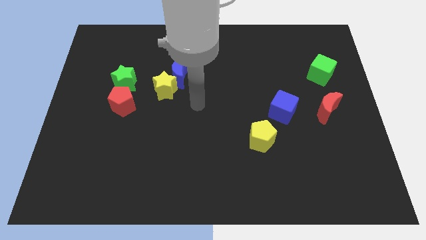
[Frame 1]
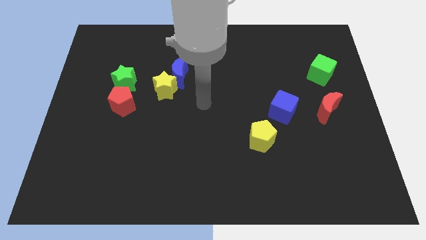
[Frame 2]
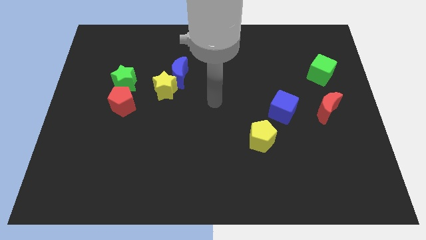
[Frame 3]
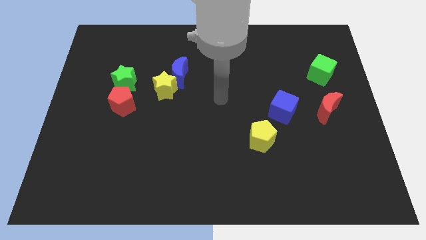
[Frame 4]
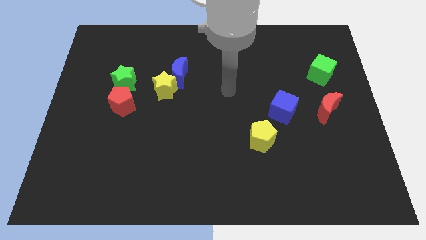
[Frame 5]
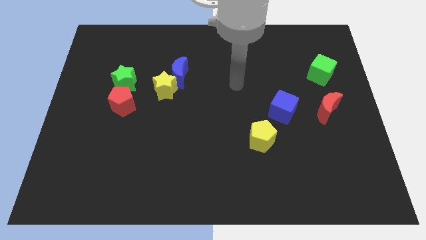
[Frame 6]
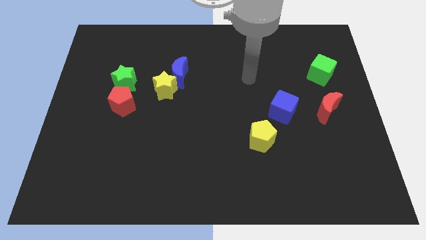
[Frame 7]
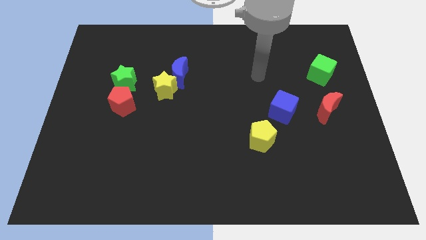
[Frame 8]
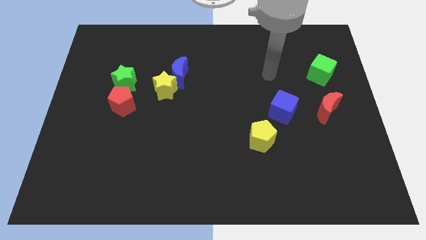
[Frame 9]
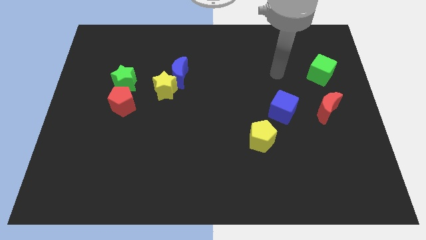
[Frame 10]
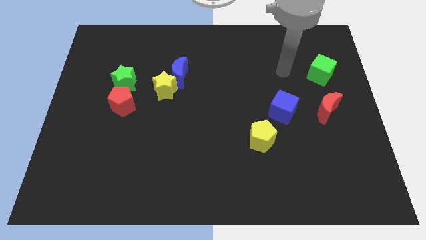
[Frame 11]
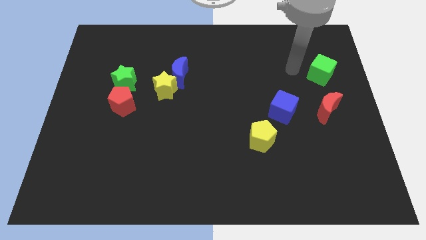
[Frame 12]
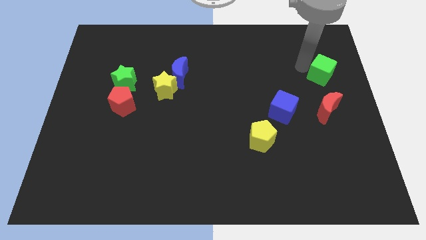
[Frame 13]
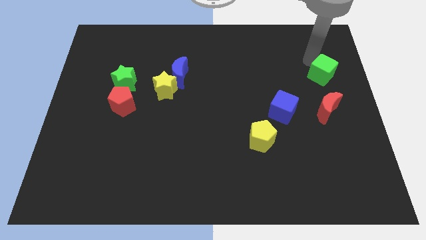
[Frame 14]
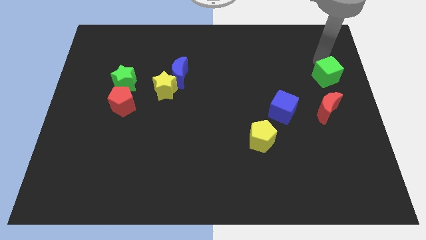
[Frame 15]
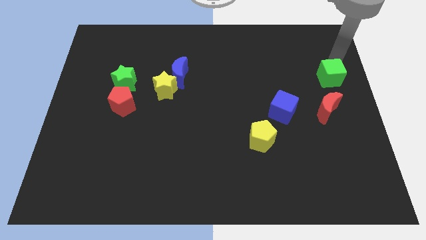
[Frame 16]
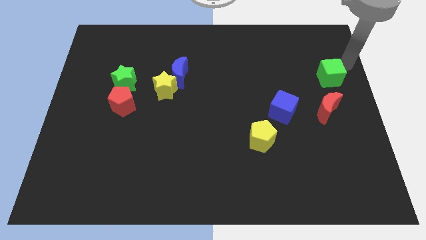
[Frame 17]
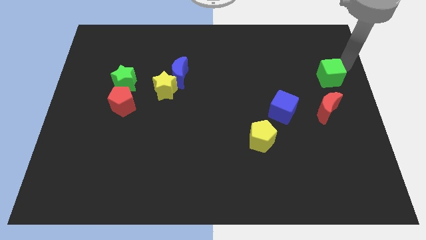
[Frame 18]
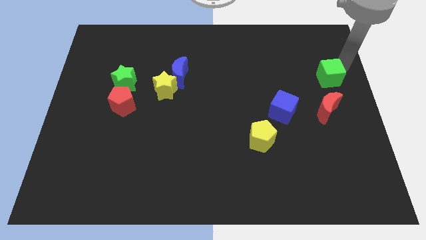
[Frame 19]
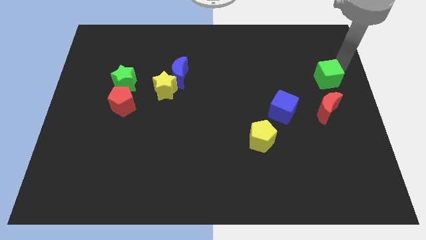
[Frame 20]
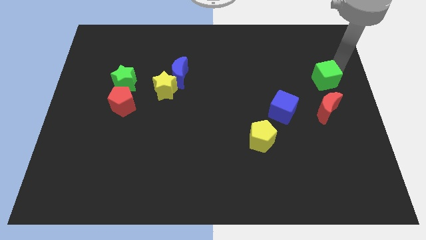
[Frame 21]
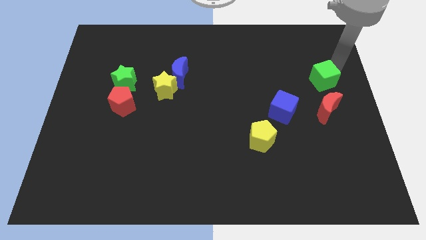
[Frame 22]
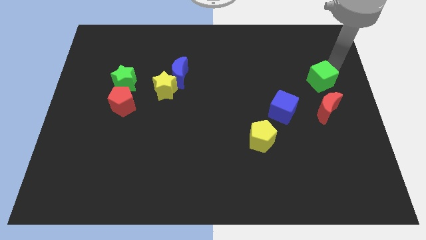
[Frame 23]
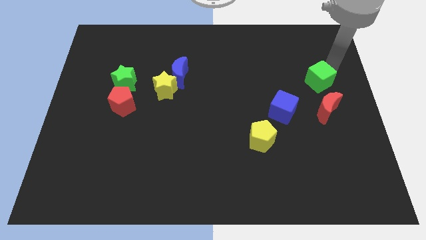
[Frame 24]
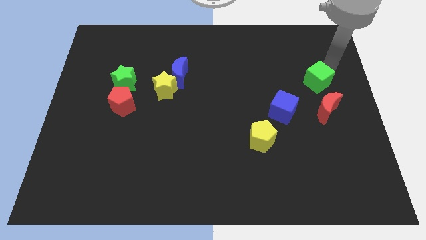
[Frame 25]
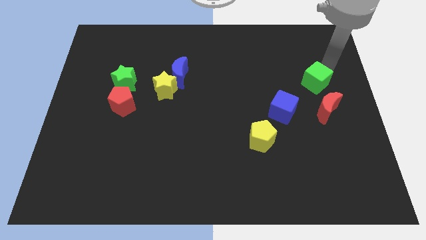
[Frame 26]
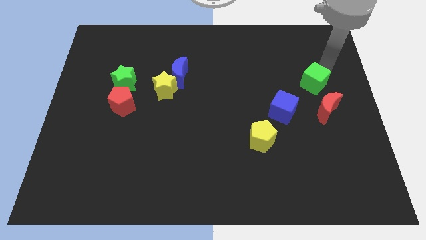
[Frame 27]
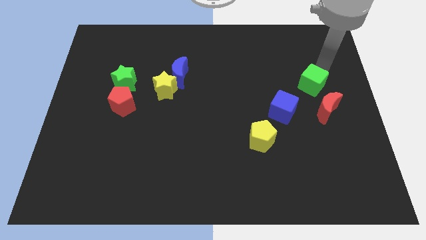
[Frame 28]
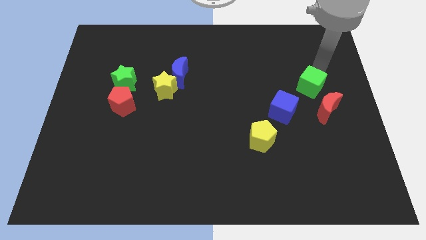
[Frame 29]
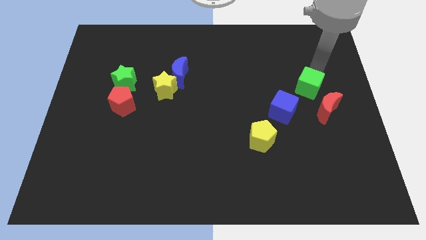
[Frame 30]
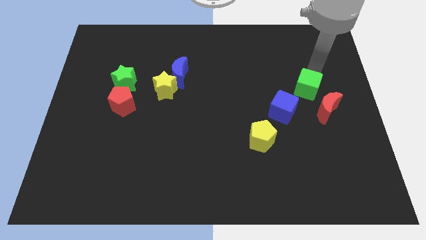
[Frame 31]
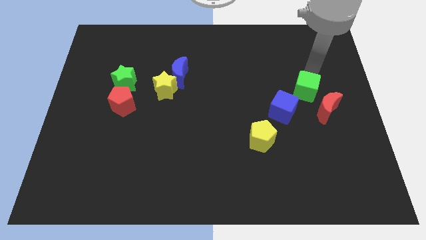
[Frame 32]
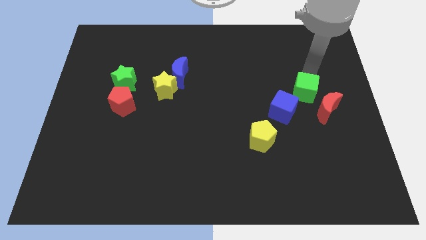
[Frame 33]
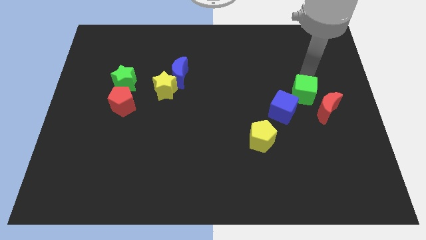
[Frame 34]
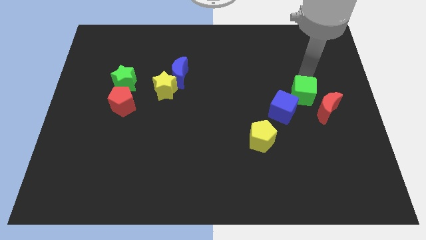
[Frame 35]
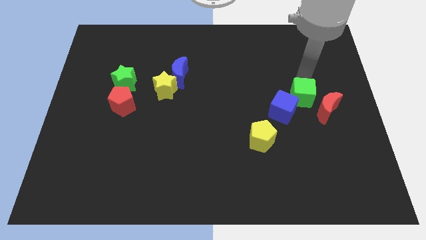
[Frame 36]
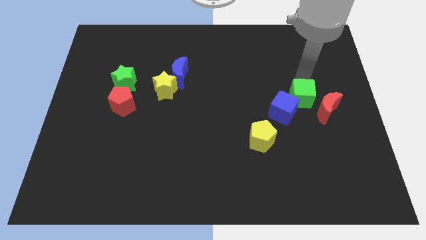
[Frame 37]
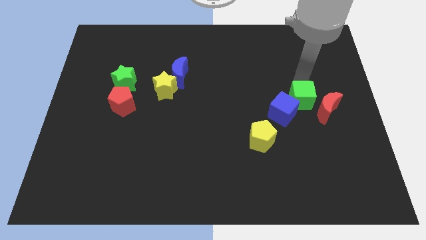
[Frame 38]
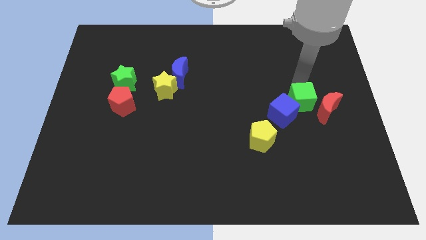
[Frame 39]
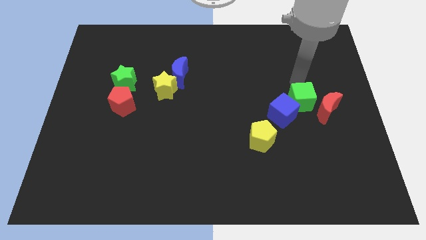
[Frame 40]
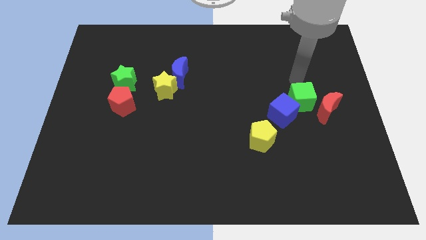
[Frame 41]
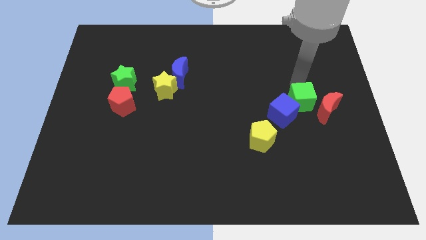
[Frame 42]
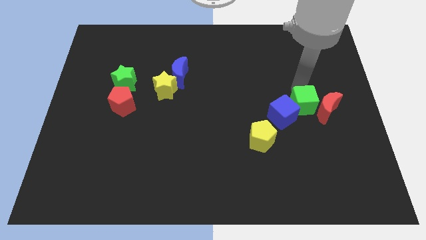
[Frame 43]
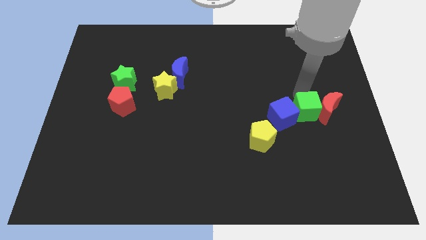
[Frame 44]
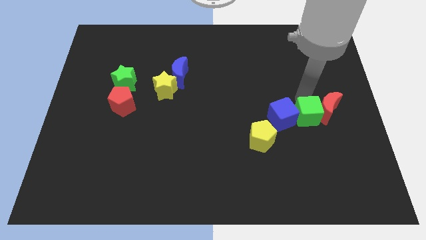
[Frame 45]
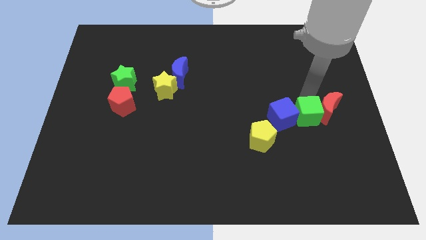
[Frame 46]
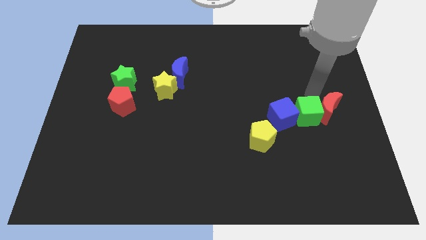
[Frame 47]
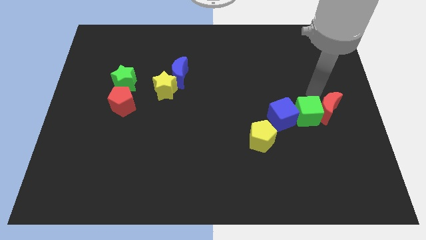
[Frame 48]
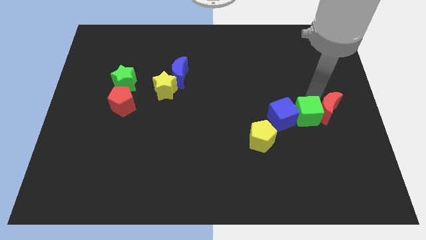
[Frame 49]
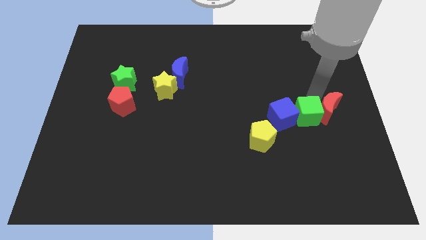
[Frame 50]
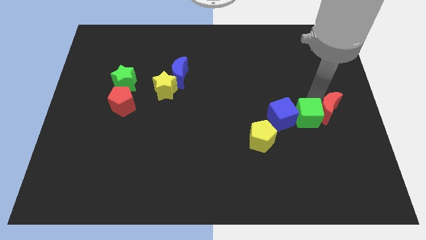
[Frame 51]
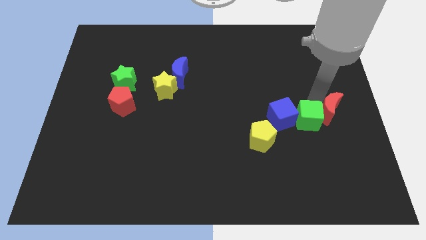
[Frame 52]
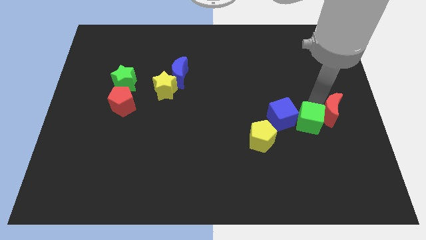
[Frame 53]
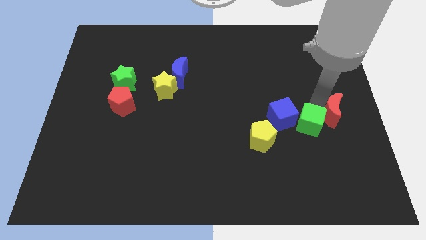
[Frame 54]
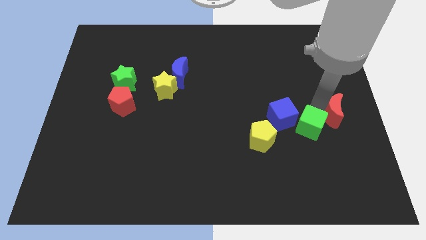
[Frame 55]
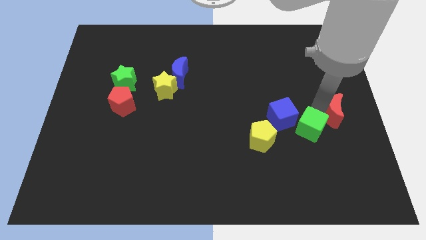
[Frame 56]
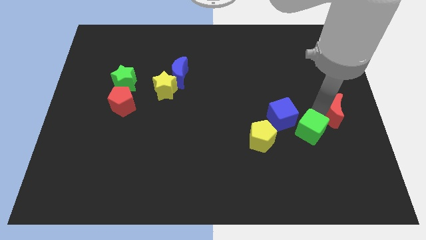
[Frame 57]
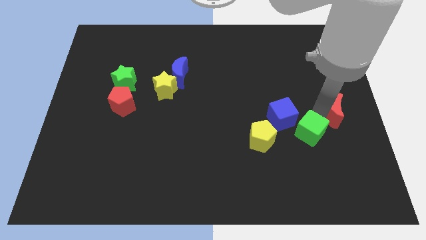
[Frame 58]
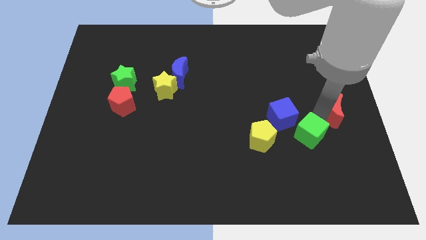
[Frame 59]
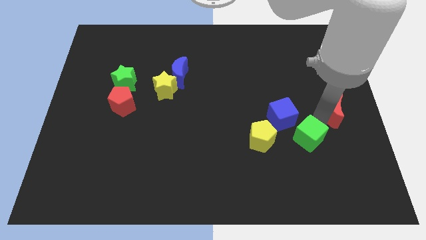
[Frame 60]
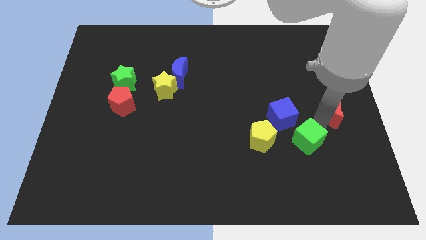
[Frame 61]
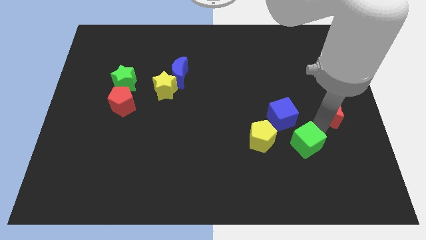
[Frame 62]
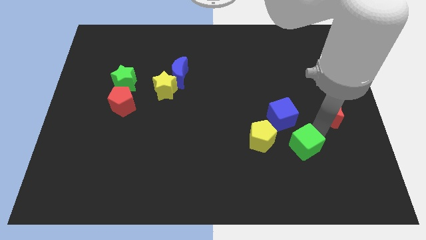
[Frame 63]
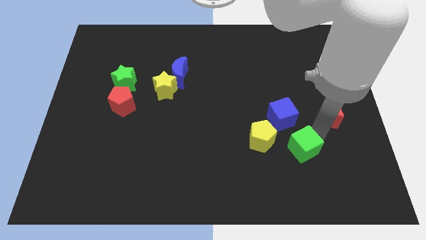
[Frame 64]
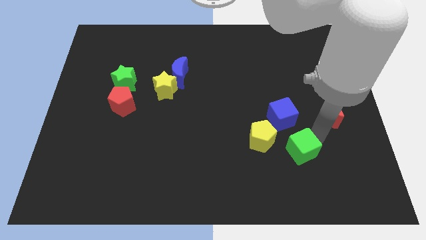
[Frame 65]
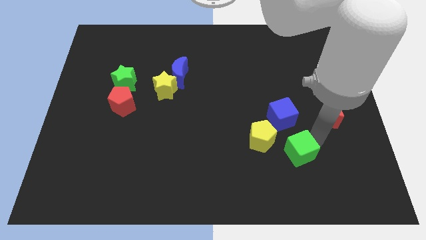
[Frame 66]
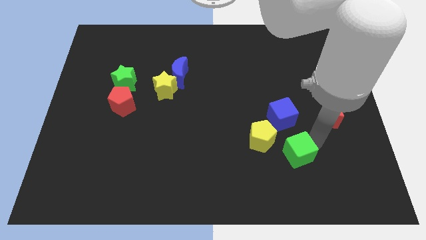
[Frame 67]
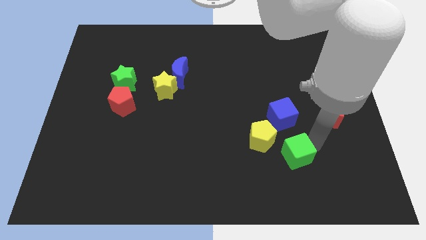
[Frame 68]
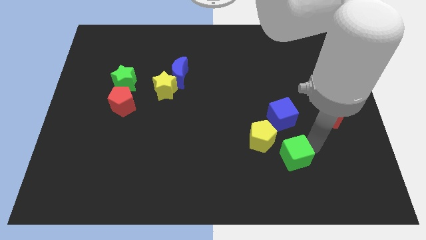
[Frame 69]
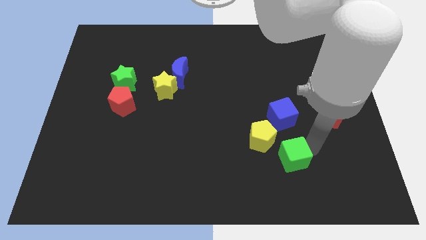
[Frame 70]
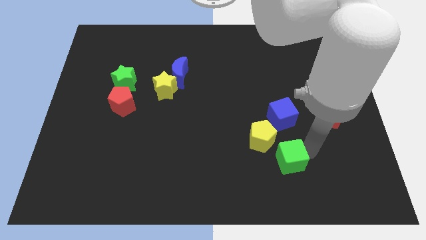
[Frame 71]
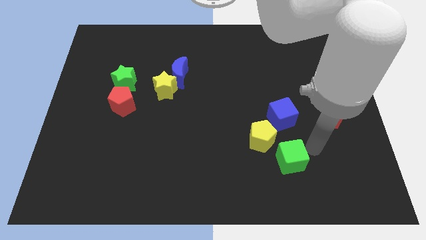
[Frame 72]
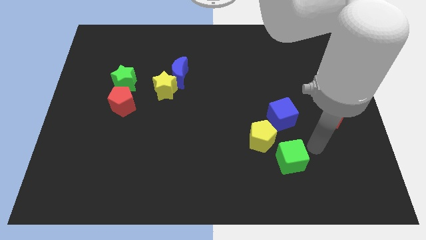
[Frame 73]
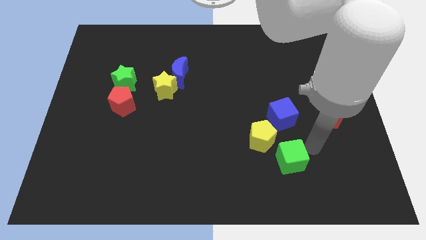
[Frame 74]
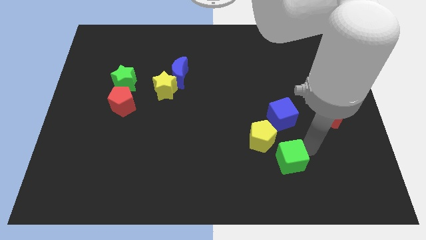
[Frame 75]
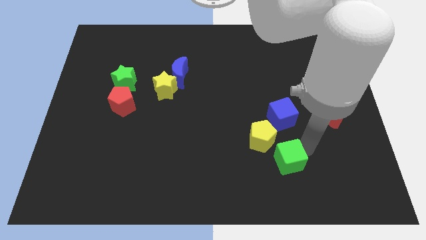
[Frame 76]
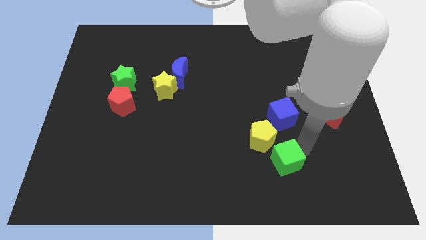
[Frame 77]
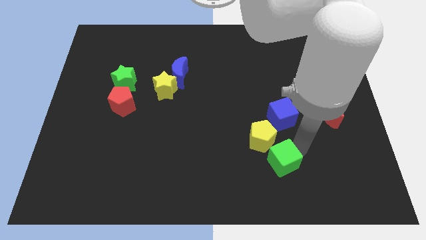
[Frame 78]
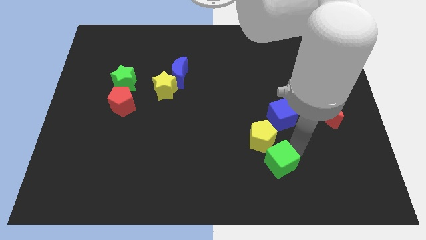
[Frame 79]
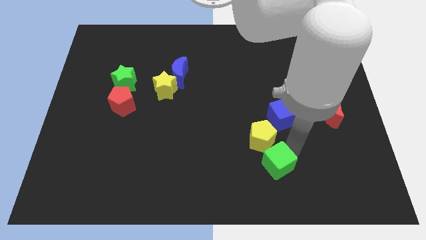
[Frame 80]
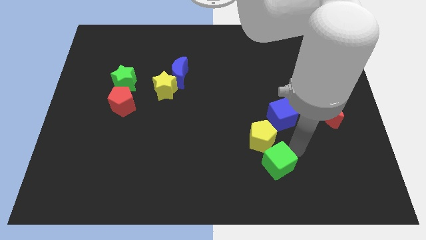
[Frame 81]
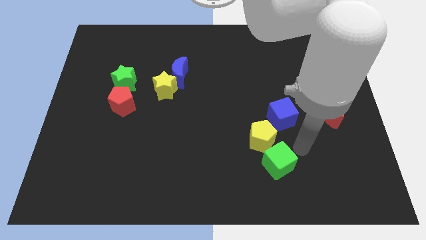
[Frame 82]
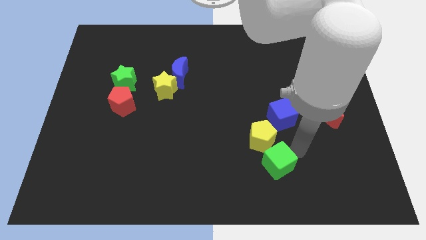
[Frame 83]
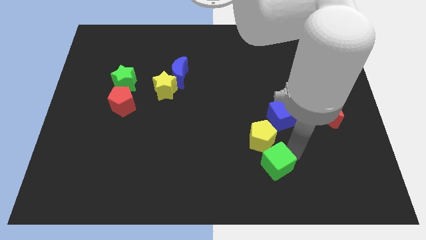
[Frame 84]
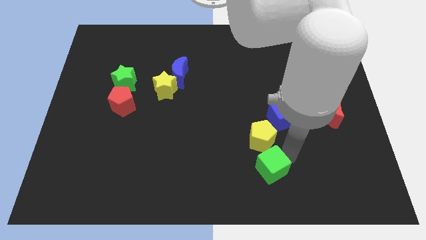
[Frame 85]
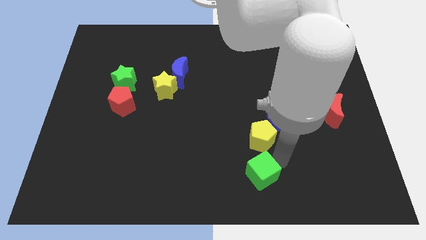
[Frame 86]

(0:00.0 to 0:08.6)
move the green cube to the bottom
